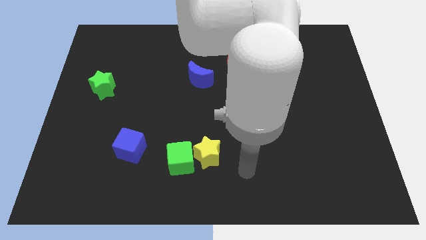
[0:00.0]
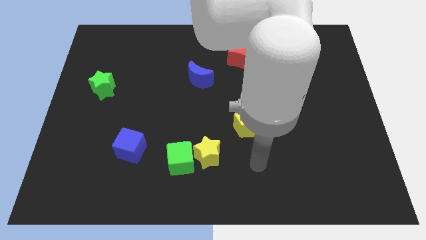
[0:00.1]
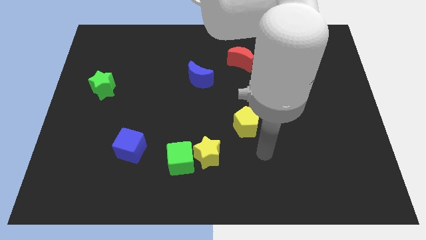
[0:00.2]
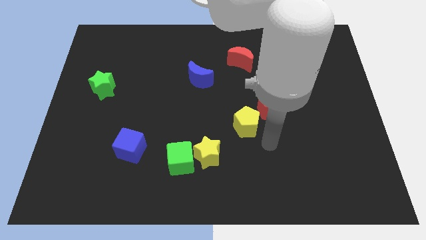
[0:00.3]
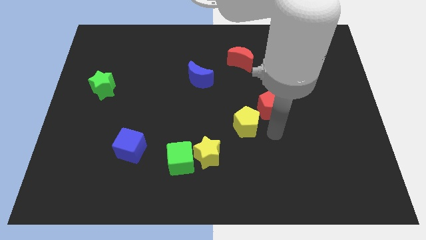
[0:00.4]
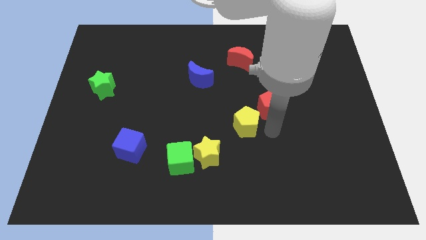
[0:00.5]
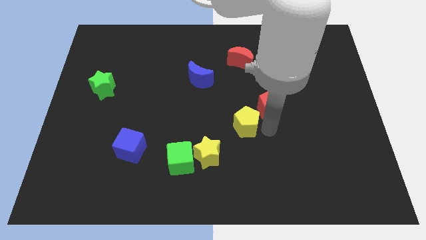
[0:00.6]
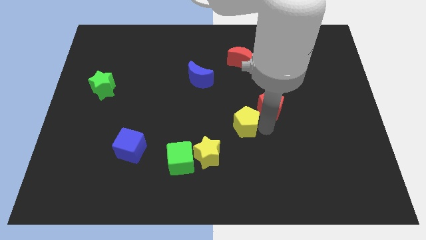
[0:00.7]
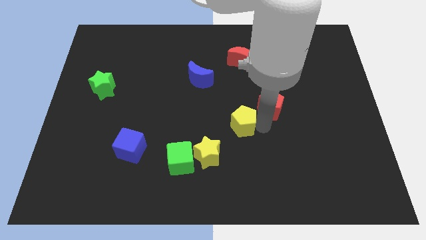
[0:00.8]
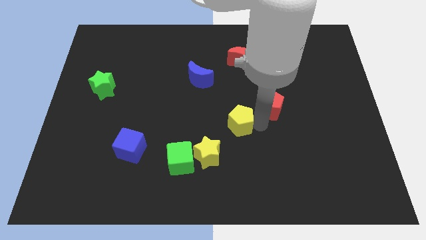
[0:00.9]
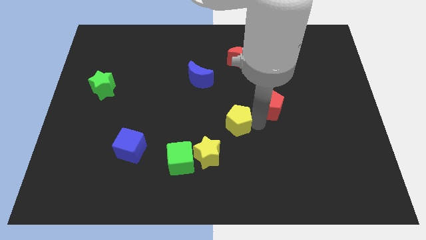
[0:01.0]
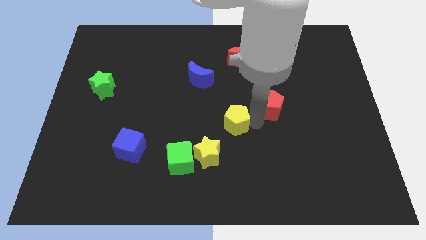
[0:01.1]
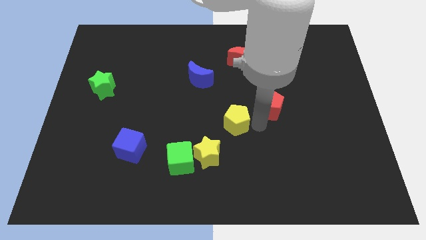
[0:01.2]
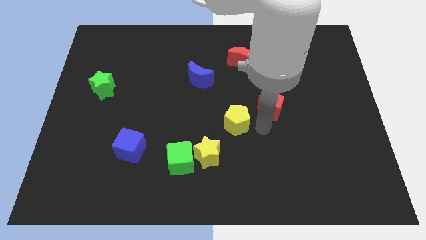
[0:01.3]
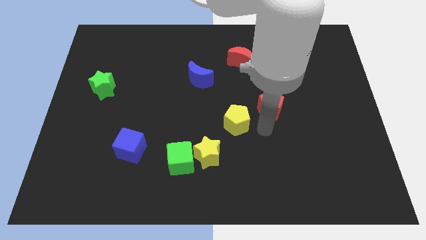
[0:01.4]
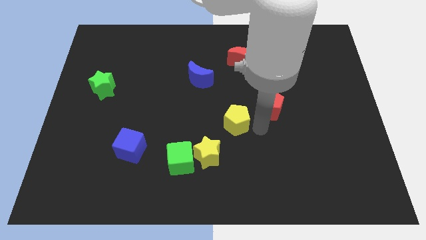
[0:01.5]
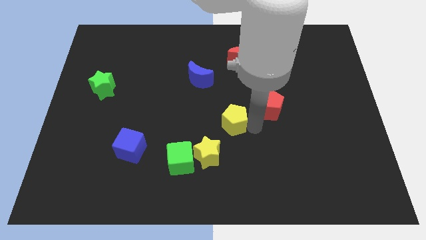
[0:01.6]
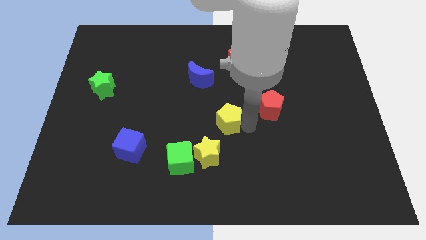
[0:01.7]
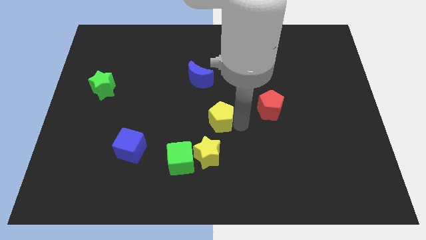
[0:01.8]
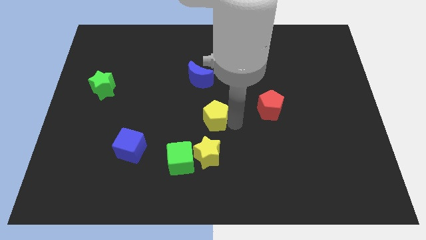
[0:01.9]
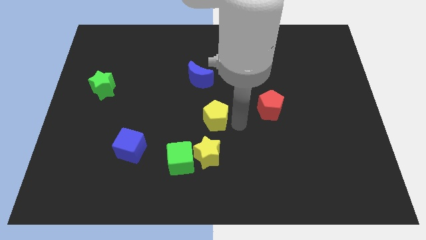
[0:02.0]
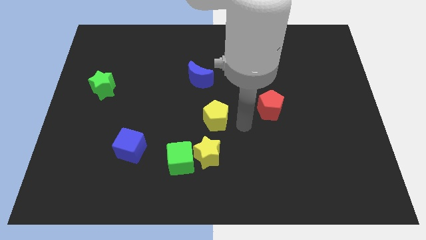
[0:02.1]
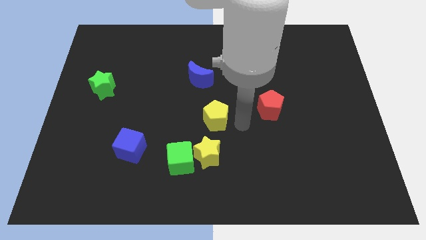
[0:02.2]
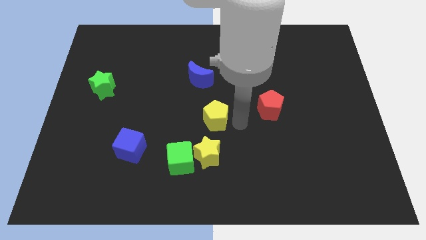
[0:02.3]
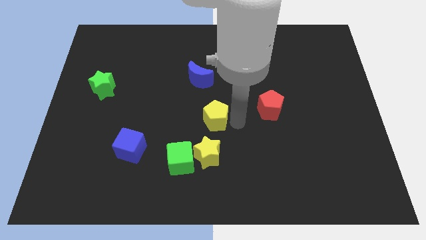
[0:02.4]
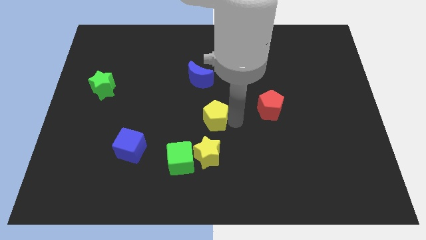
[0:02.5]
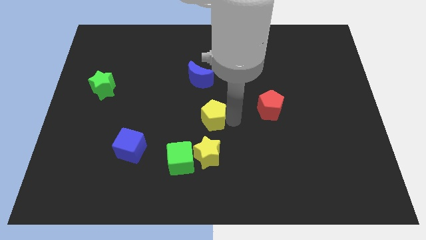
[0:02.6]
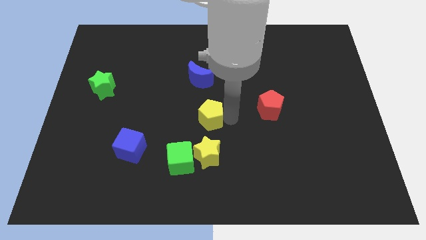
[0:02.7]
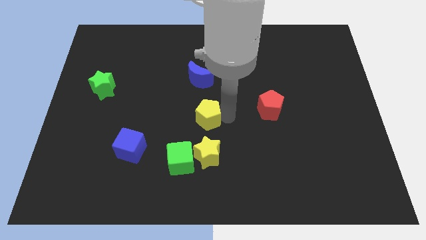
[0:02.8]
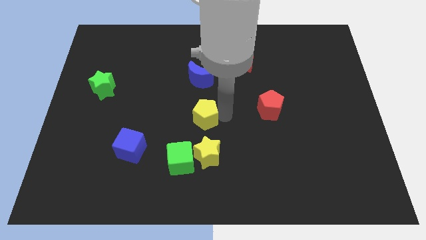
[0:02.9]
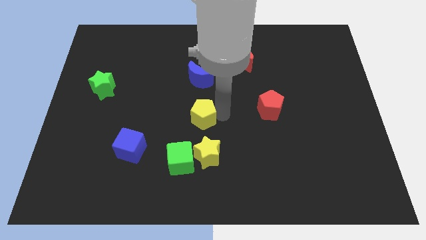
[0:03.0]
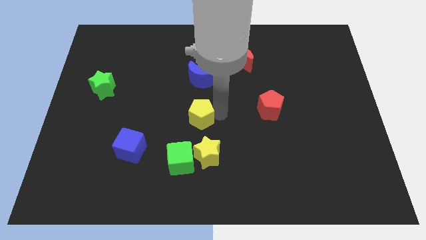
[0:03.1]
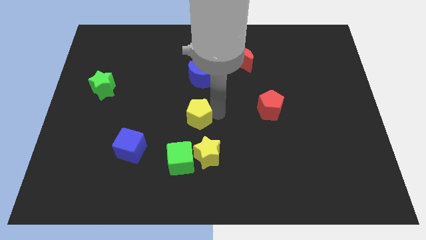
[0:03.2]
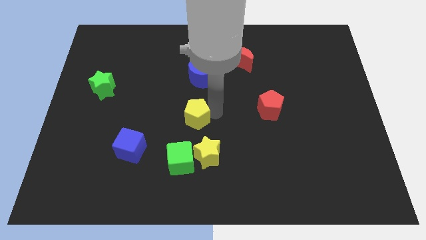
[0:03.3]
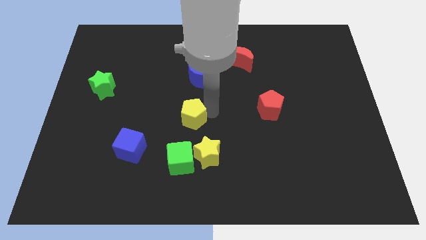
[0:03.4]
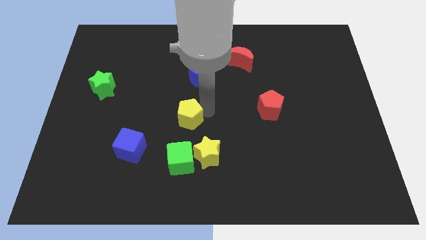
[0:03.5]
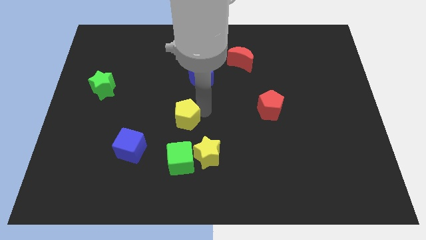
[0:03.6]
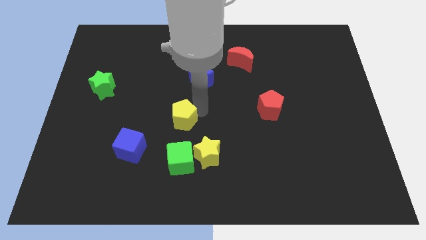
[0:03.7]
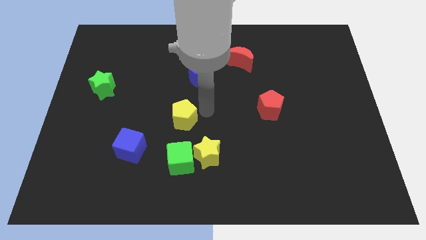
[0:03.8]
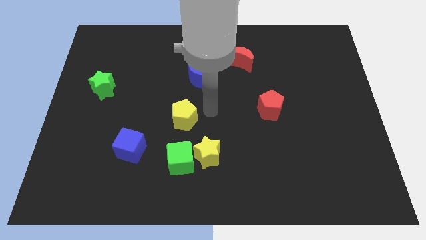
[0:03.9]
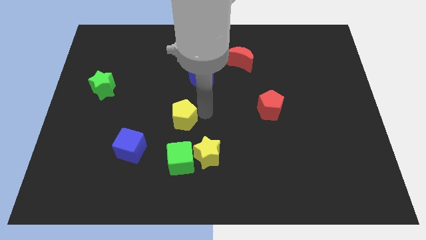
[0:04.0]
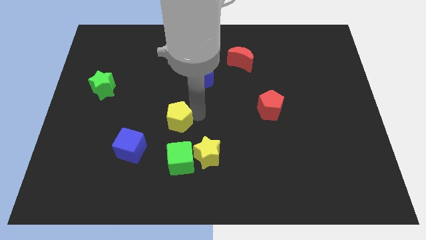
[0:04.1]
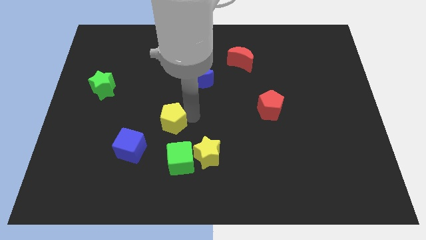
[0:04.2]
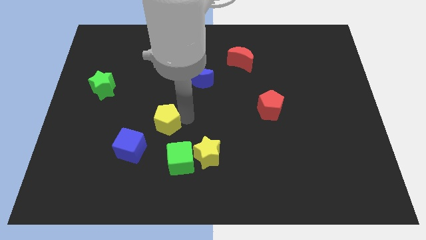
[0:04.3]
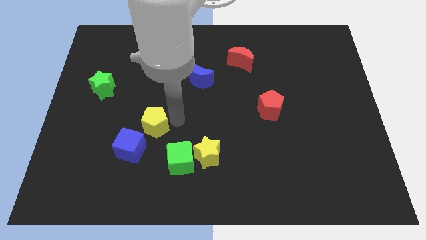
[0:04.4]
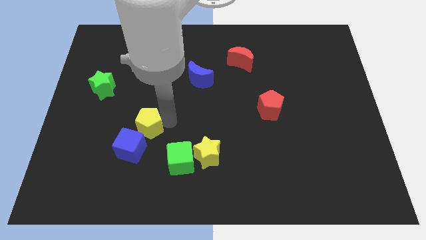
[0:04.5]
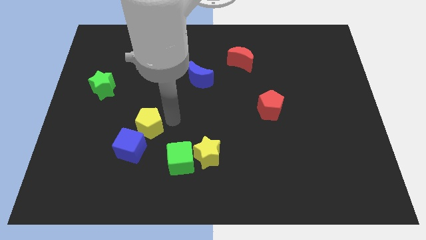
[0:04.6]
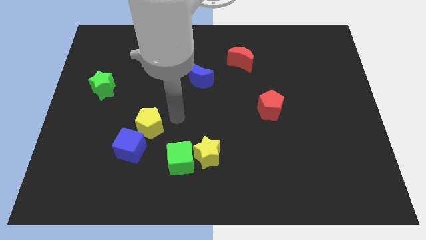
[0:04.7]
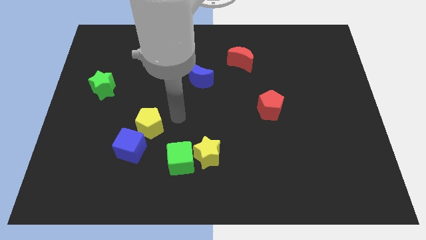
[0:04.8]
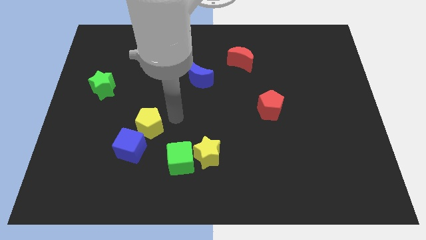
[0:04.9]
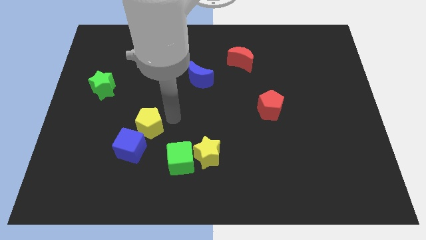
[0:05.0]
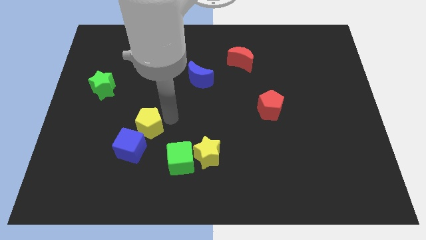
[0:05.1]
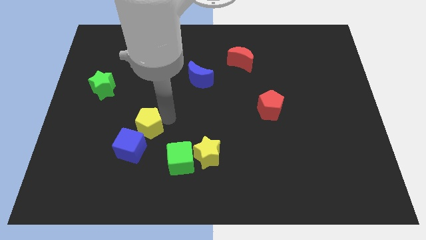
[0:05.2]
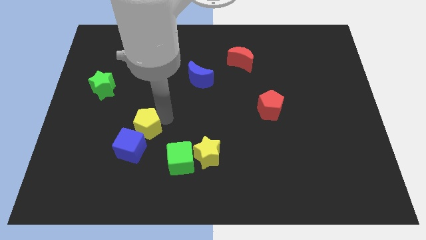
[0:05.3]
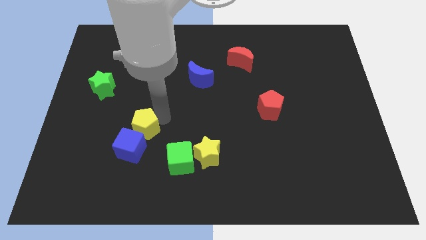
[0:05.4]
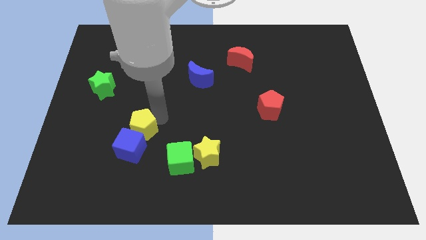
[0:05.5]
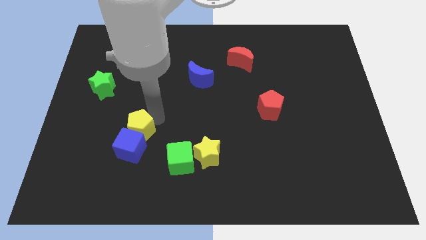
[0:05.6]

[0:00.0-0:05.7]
put the yellow pentagon to the top left side of the blue cube

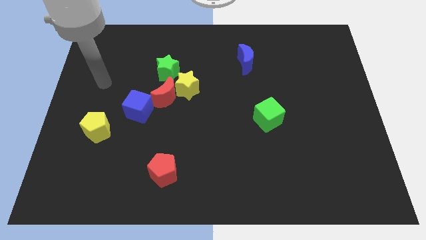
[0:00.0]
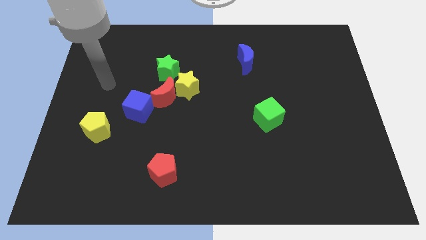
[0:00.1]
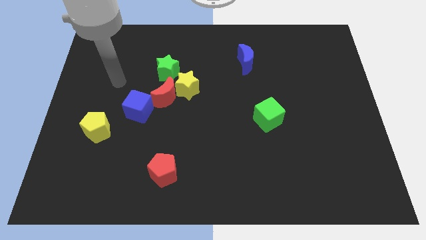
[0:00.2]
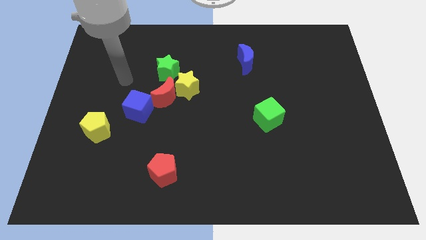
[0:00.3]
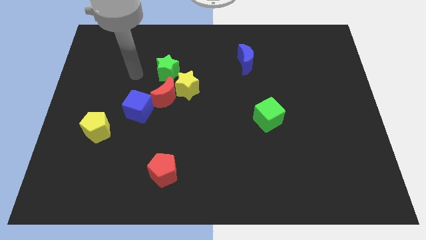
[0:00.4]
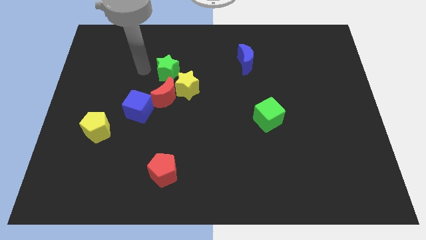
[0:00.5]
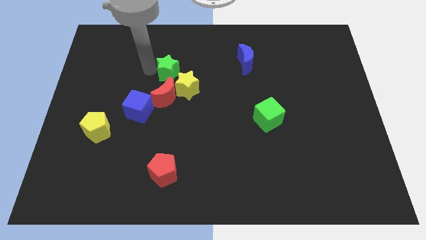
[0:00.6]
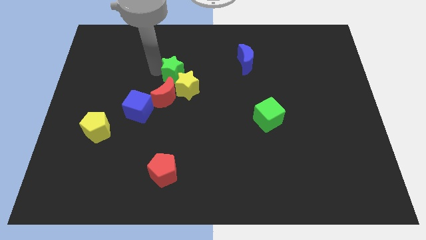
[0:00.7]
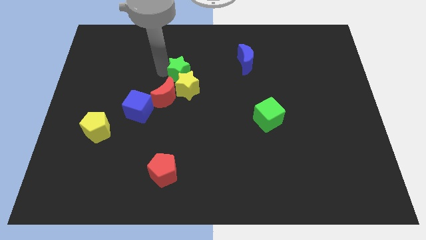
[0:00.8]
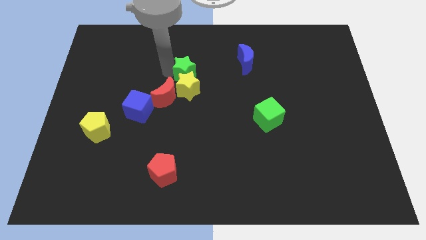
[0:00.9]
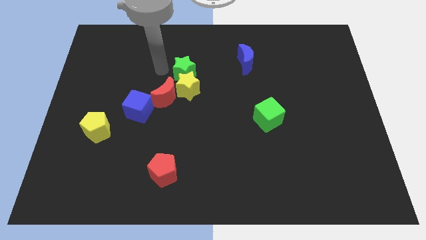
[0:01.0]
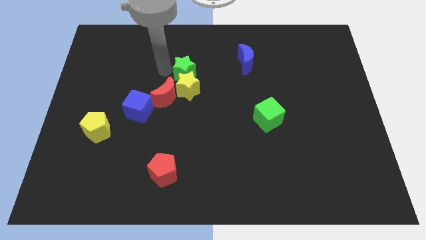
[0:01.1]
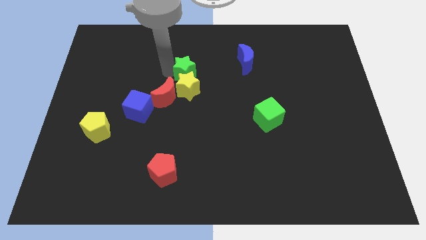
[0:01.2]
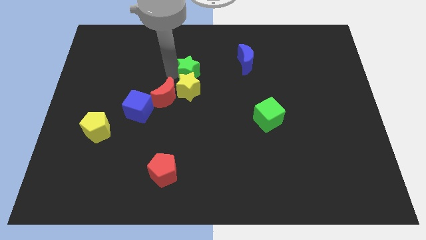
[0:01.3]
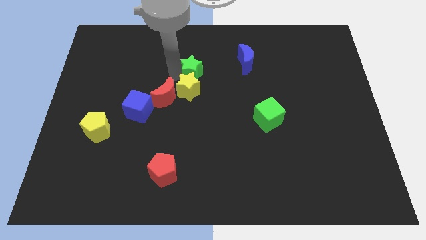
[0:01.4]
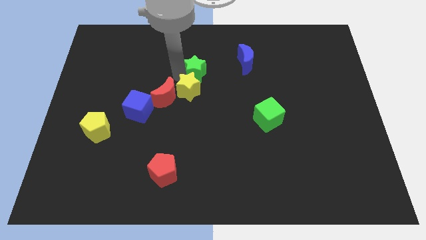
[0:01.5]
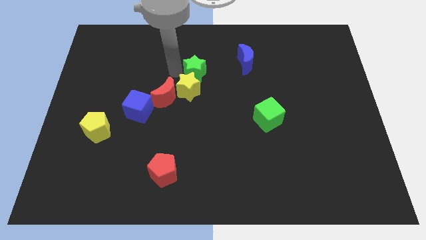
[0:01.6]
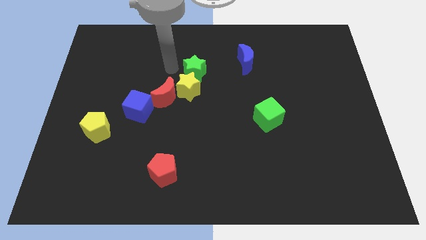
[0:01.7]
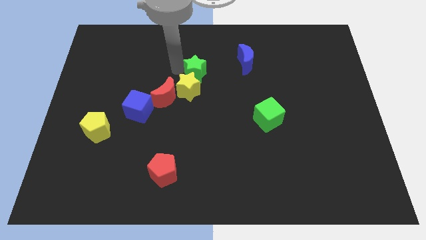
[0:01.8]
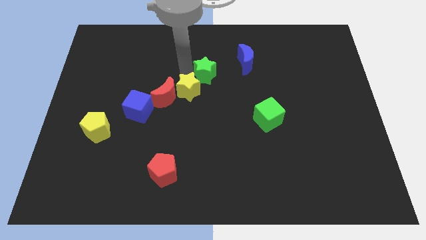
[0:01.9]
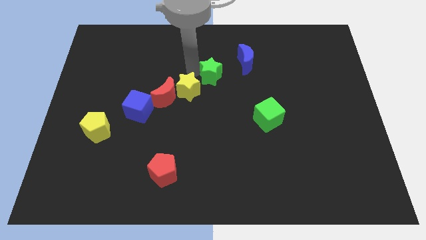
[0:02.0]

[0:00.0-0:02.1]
put the green star to the bottom left side of the blue moon
